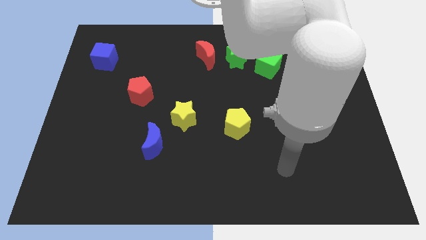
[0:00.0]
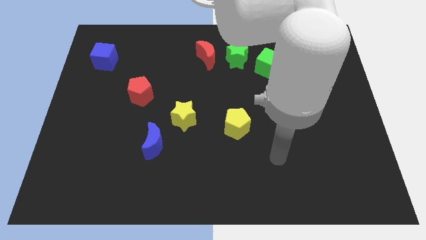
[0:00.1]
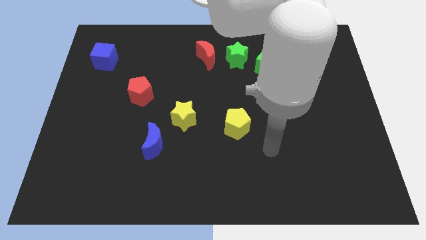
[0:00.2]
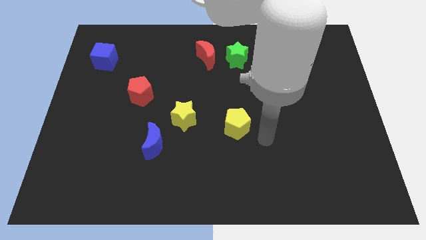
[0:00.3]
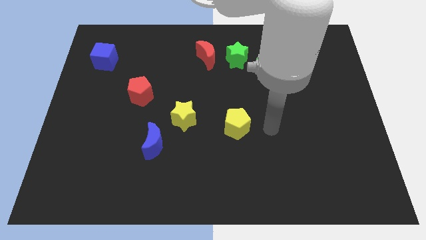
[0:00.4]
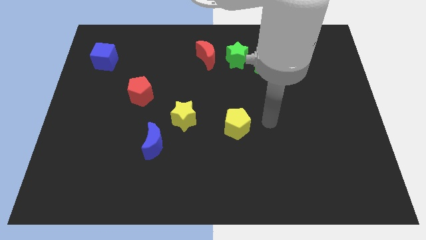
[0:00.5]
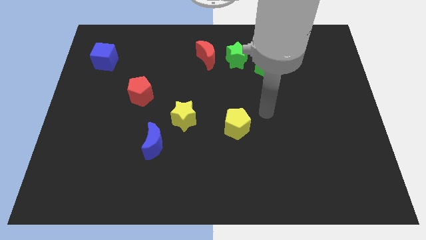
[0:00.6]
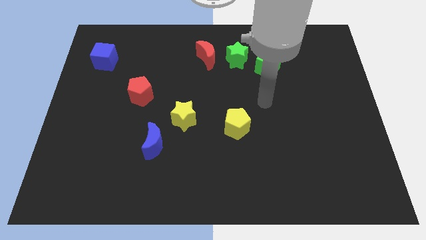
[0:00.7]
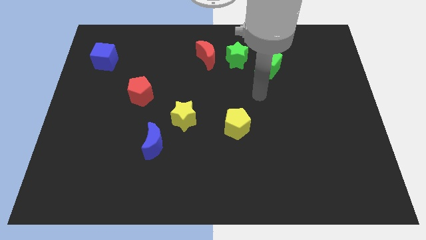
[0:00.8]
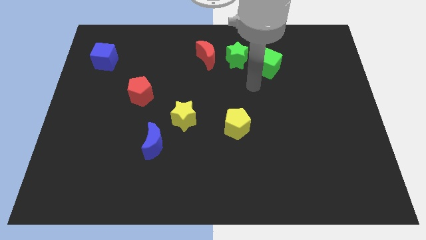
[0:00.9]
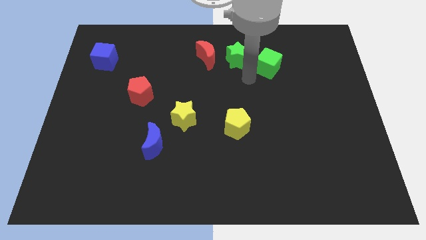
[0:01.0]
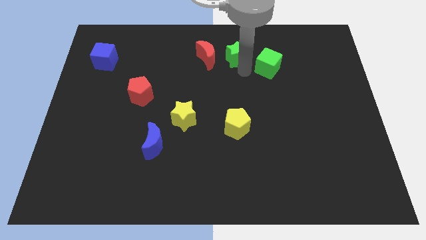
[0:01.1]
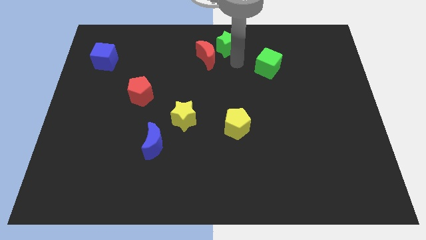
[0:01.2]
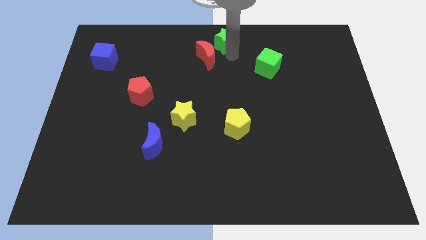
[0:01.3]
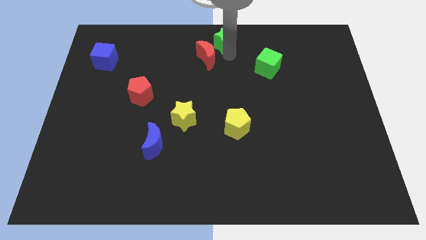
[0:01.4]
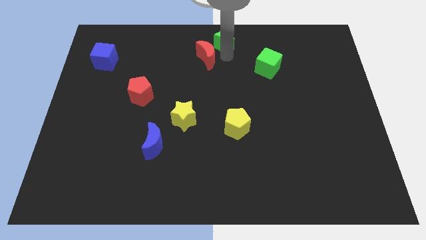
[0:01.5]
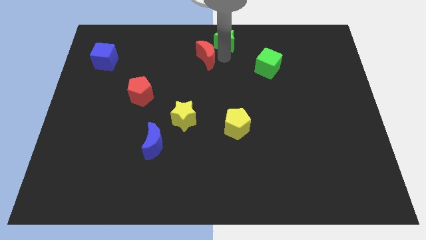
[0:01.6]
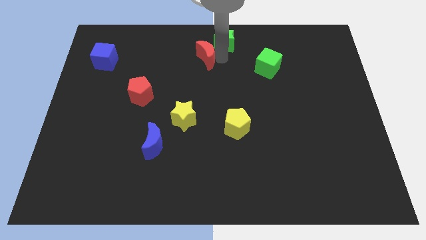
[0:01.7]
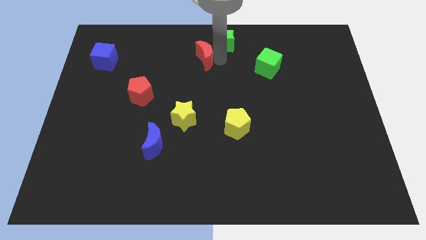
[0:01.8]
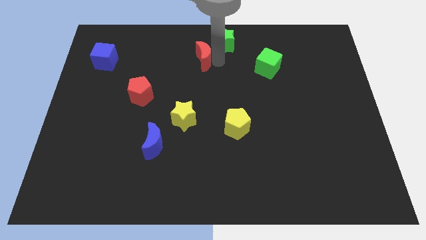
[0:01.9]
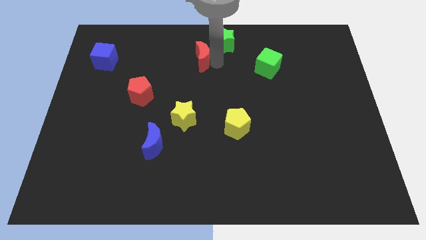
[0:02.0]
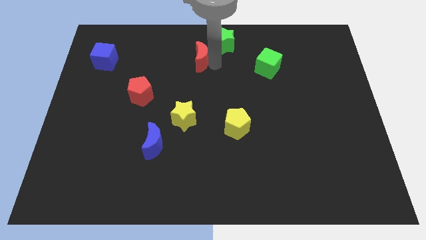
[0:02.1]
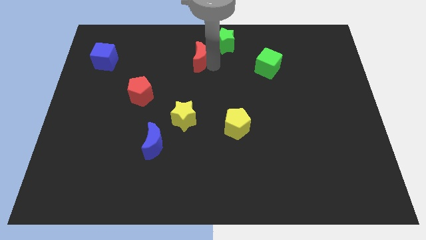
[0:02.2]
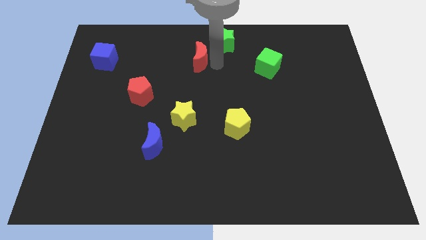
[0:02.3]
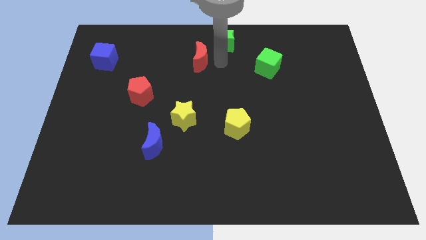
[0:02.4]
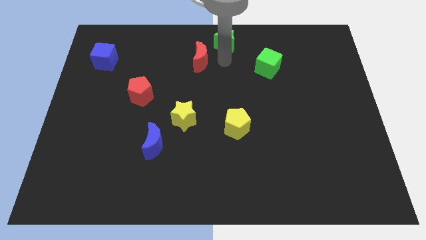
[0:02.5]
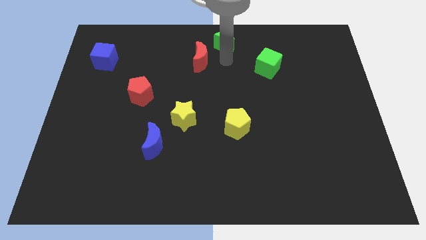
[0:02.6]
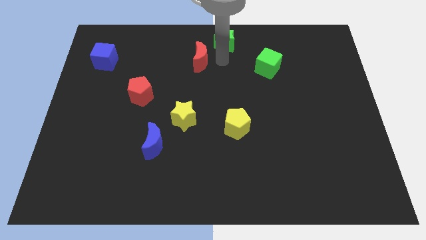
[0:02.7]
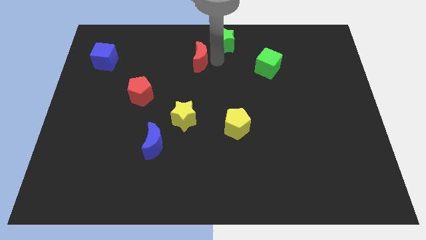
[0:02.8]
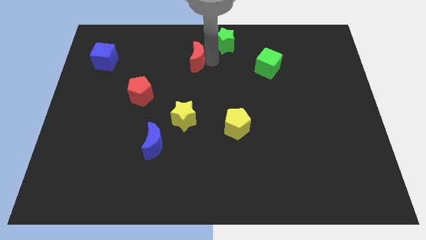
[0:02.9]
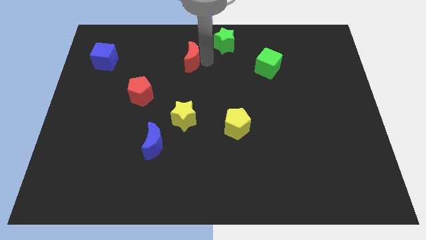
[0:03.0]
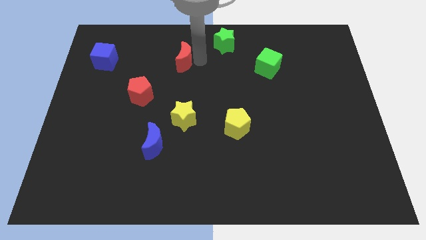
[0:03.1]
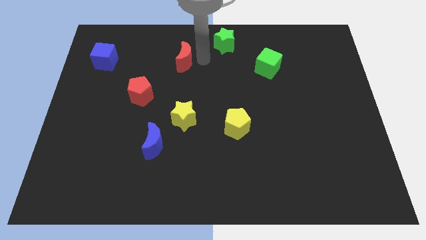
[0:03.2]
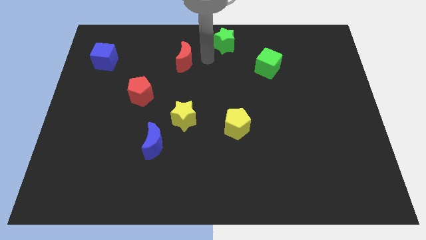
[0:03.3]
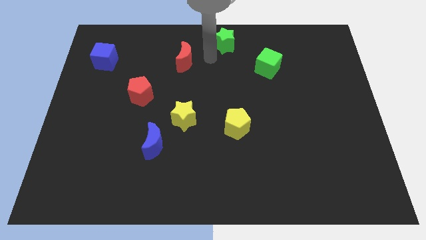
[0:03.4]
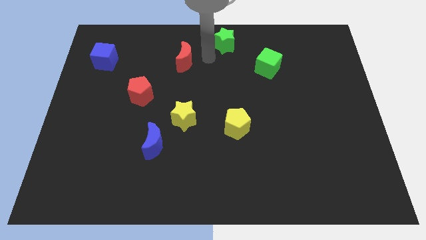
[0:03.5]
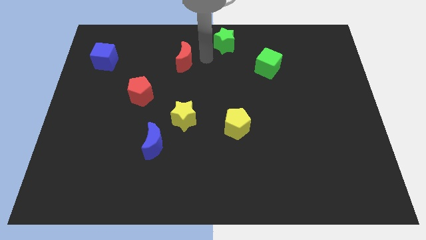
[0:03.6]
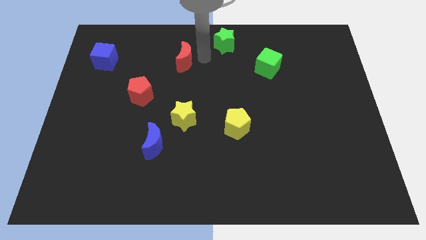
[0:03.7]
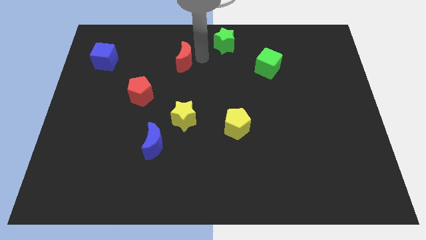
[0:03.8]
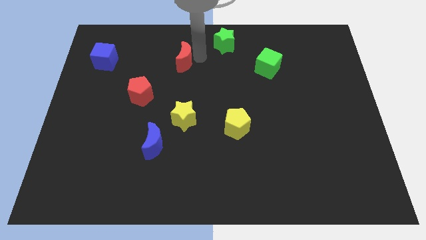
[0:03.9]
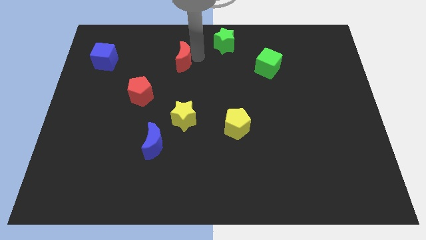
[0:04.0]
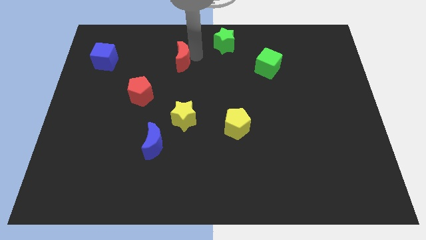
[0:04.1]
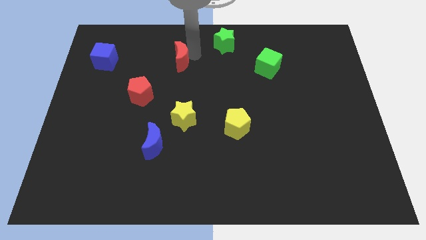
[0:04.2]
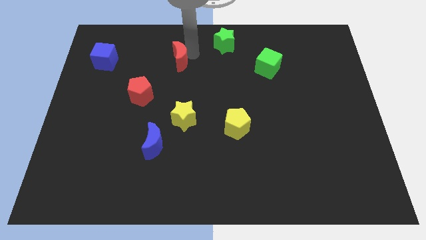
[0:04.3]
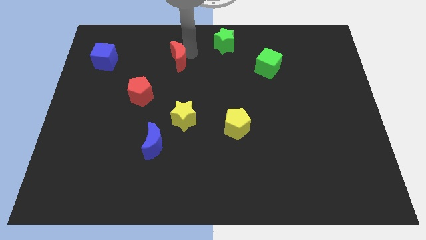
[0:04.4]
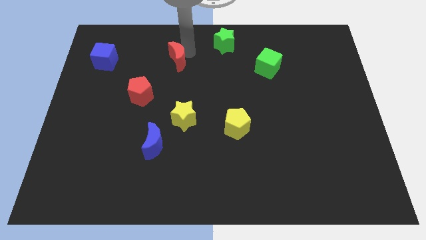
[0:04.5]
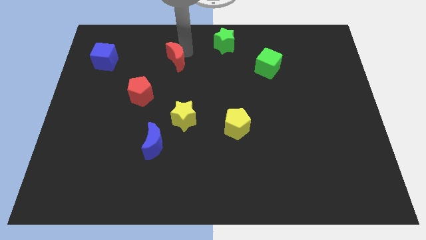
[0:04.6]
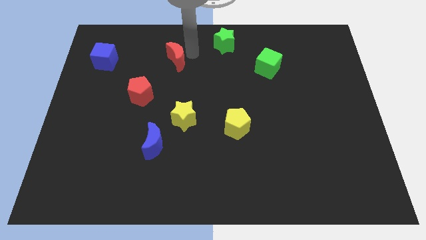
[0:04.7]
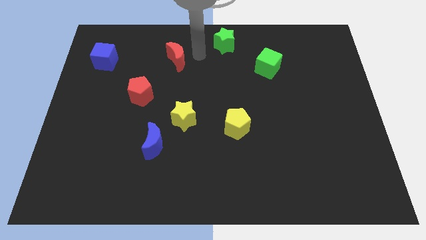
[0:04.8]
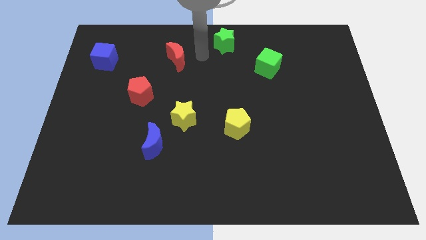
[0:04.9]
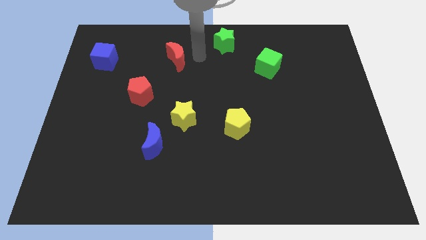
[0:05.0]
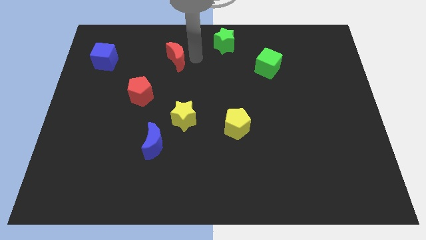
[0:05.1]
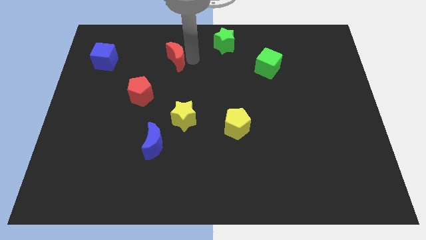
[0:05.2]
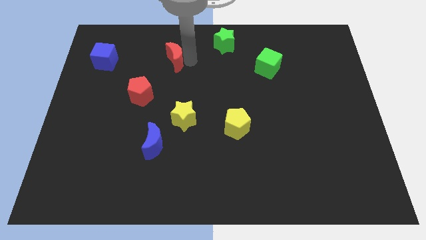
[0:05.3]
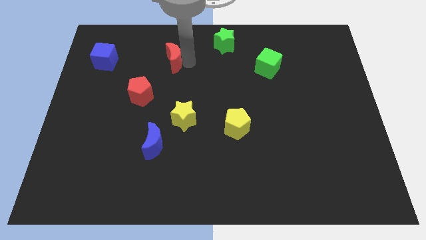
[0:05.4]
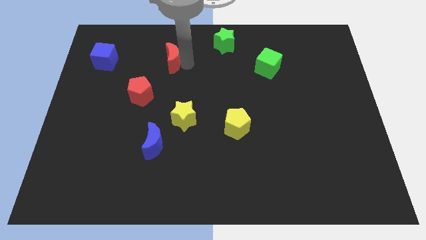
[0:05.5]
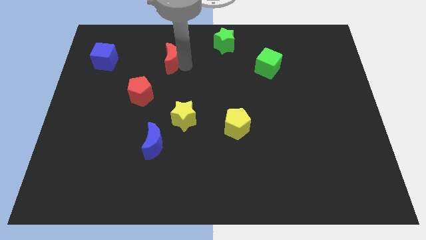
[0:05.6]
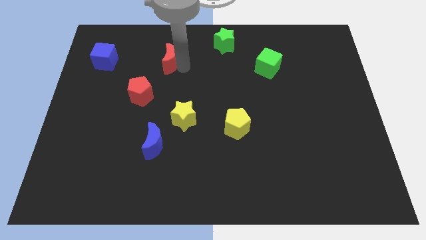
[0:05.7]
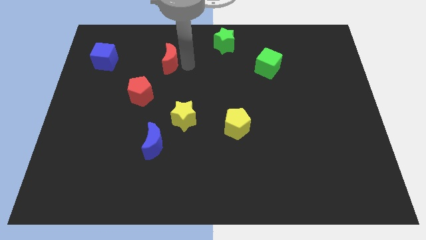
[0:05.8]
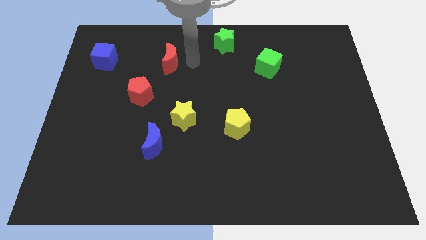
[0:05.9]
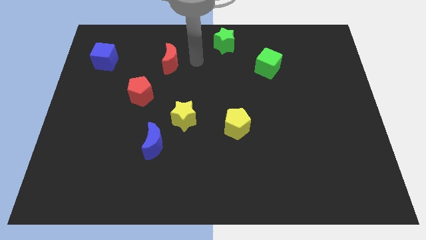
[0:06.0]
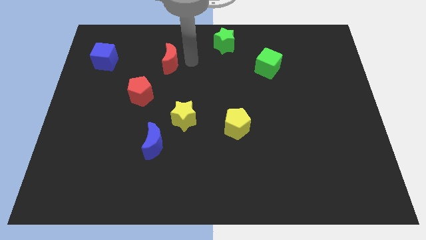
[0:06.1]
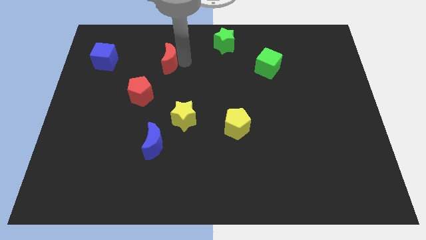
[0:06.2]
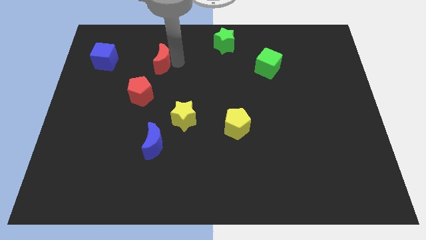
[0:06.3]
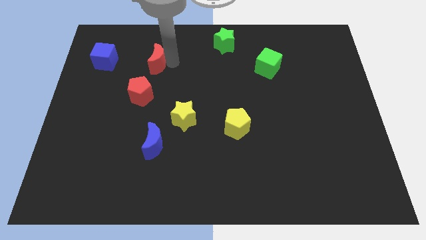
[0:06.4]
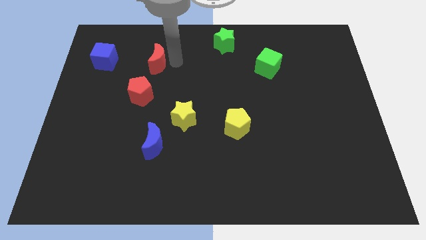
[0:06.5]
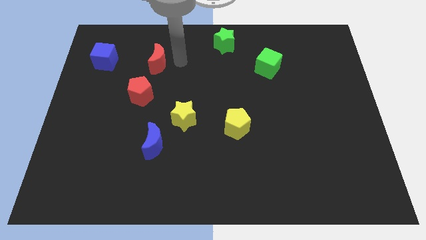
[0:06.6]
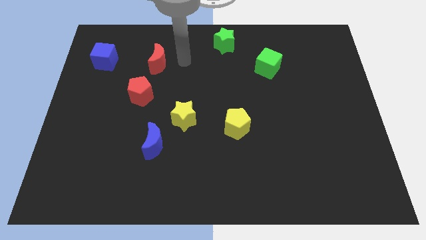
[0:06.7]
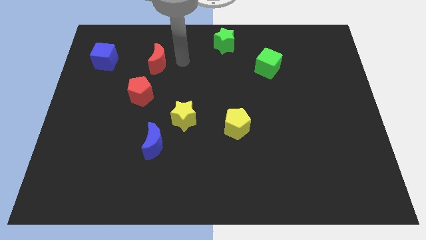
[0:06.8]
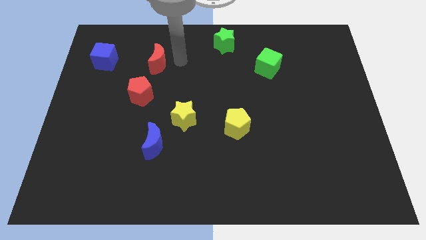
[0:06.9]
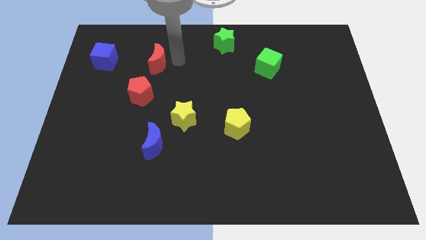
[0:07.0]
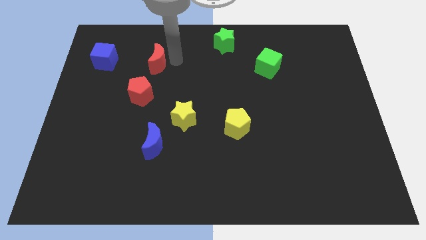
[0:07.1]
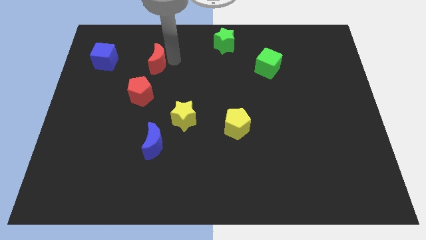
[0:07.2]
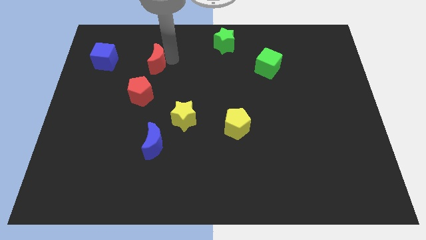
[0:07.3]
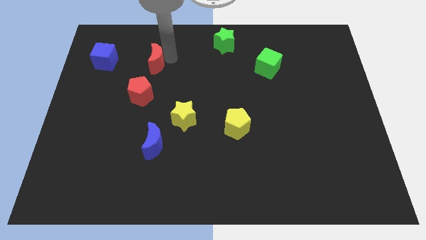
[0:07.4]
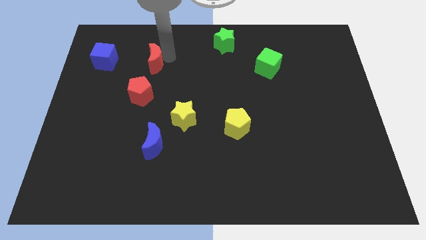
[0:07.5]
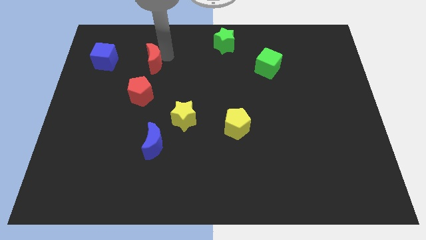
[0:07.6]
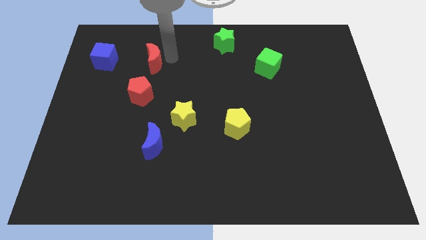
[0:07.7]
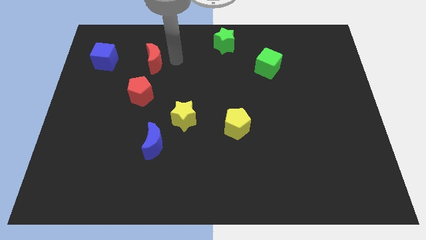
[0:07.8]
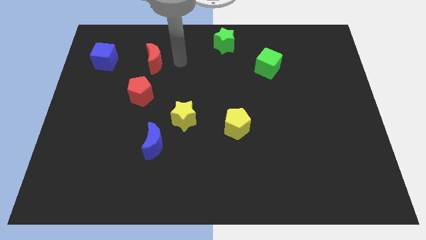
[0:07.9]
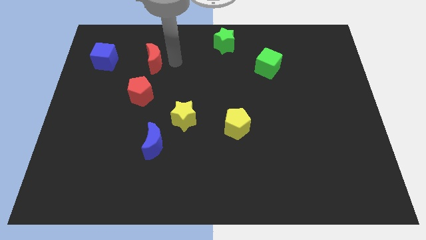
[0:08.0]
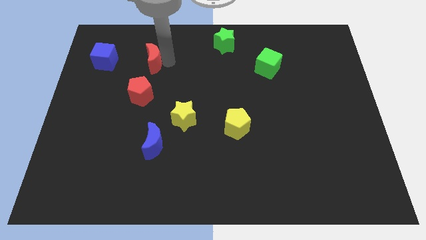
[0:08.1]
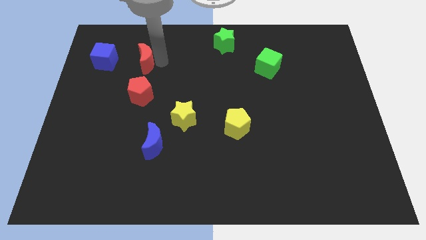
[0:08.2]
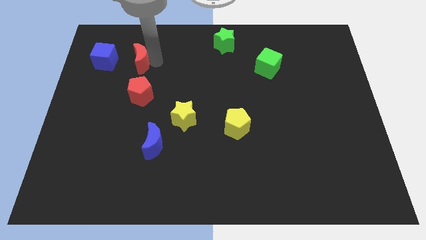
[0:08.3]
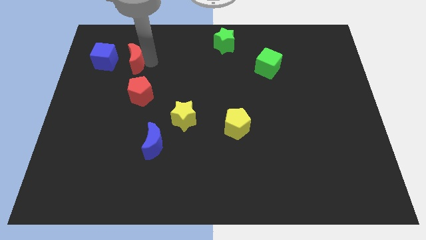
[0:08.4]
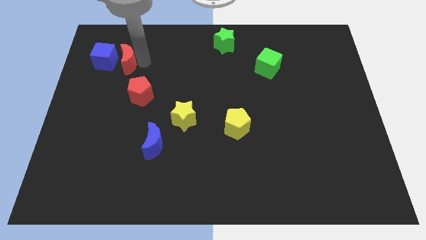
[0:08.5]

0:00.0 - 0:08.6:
put the red moon close to the blue cube
